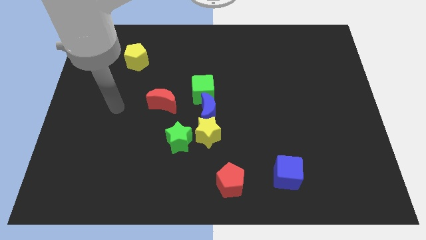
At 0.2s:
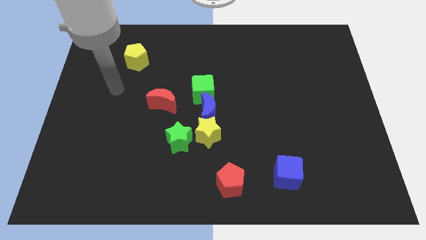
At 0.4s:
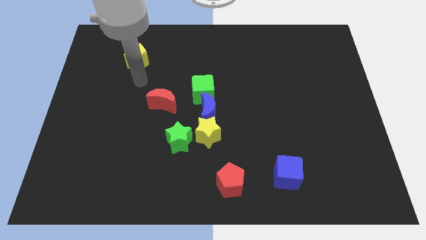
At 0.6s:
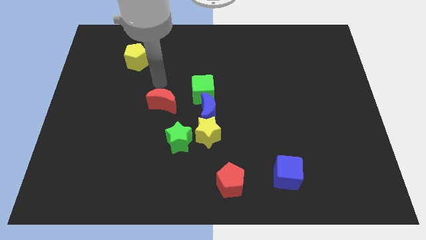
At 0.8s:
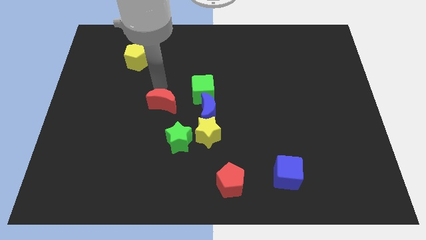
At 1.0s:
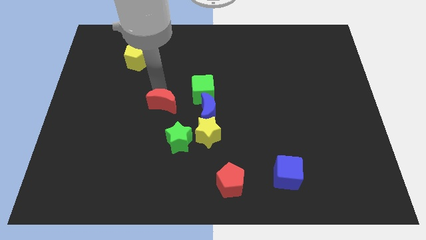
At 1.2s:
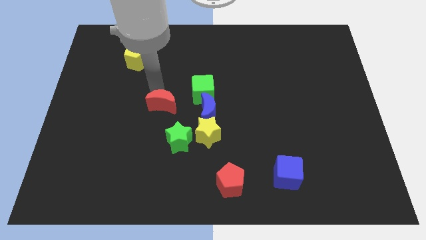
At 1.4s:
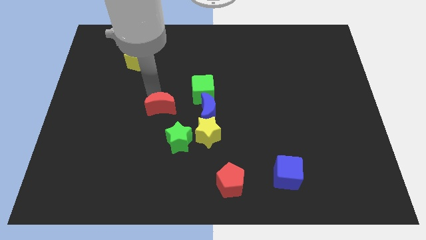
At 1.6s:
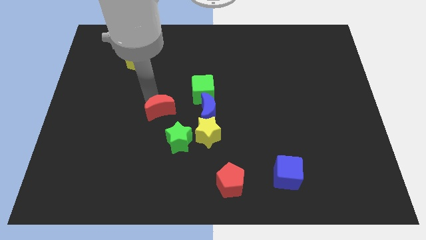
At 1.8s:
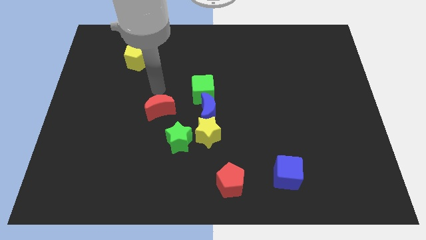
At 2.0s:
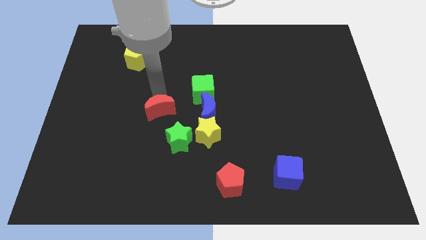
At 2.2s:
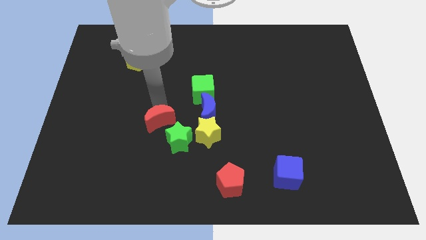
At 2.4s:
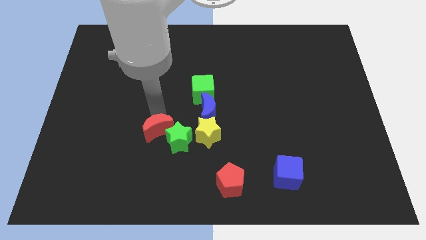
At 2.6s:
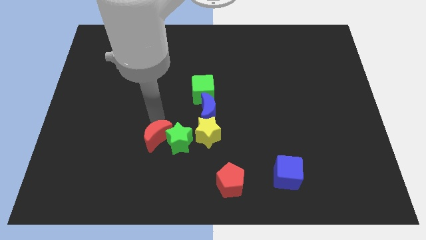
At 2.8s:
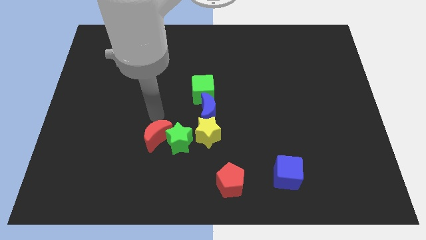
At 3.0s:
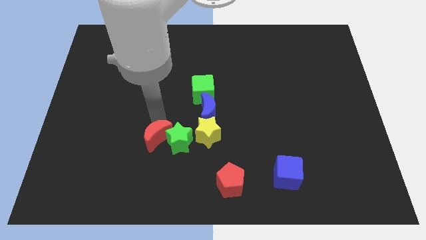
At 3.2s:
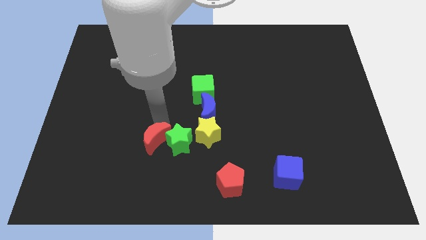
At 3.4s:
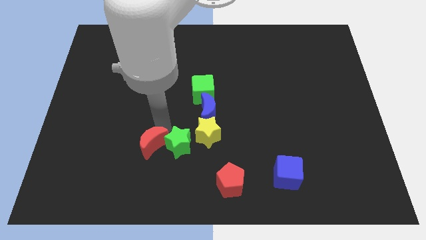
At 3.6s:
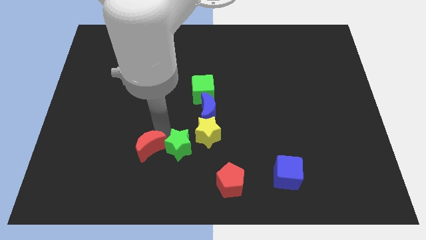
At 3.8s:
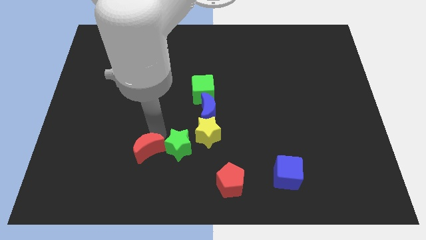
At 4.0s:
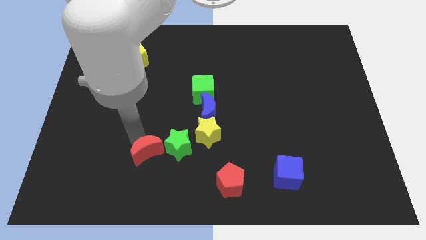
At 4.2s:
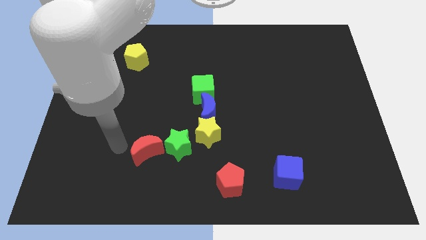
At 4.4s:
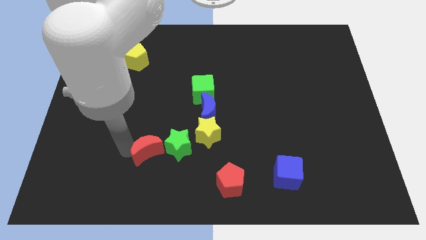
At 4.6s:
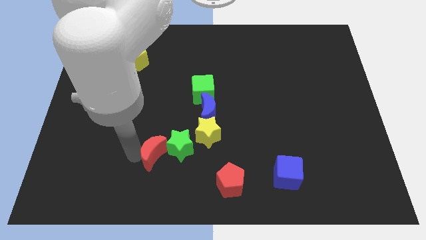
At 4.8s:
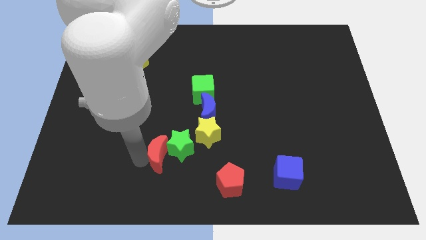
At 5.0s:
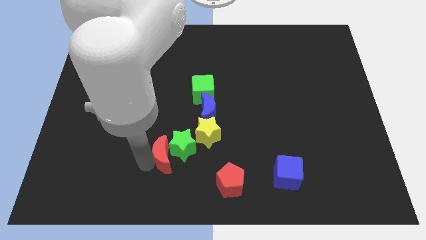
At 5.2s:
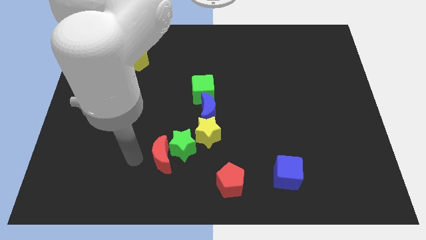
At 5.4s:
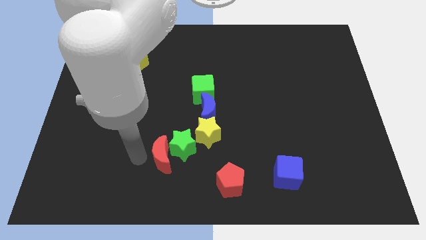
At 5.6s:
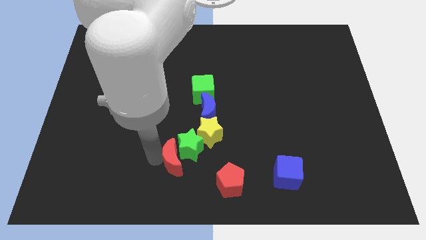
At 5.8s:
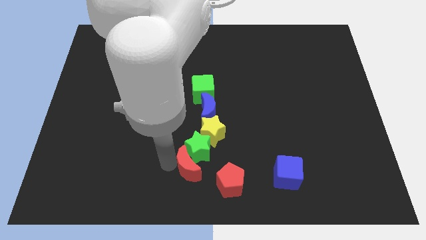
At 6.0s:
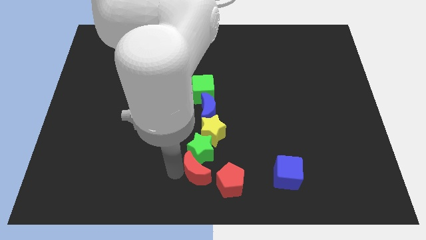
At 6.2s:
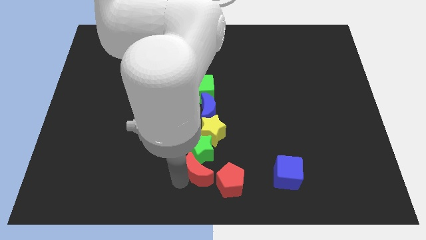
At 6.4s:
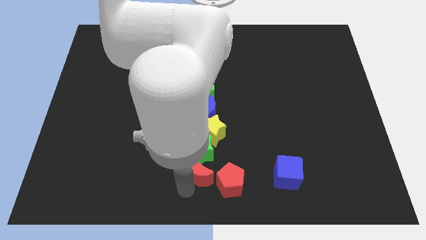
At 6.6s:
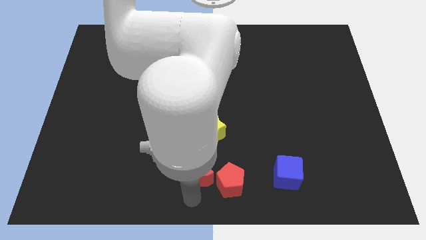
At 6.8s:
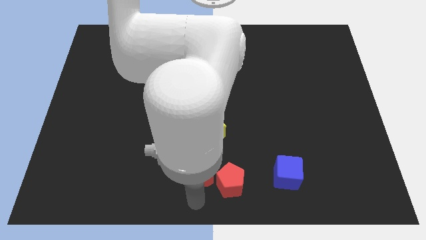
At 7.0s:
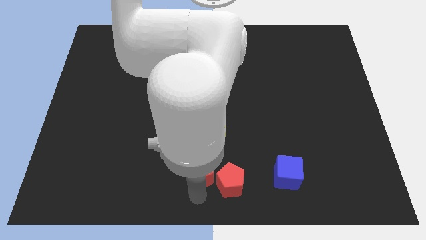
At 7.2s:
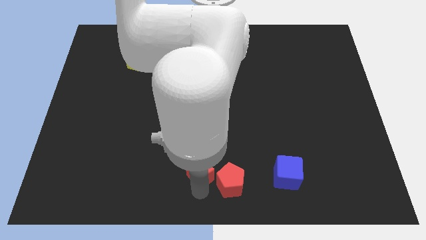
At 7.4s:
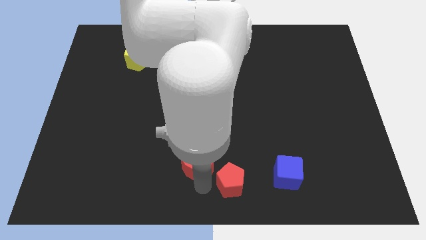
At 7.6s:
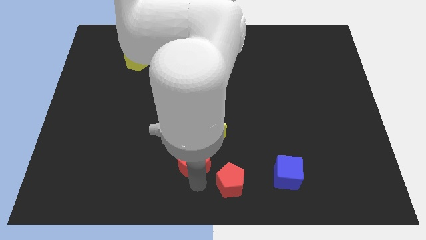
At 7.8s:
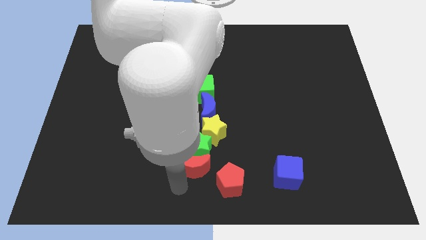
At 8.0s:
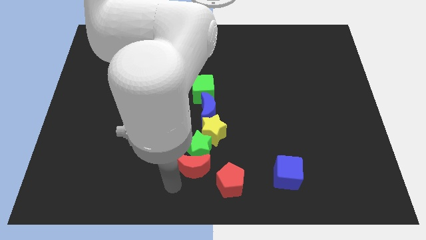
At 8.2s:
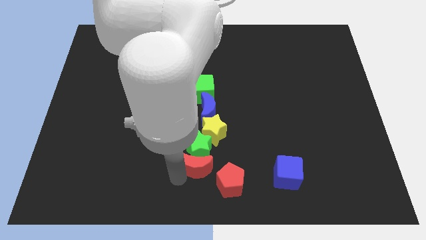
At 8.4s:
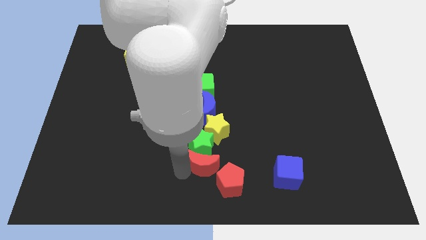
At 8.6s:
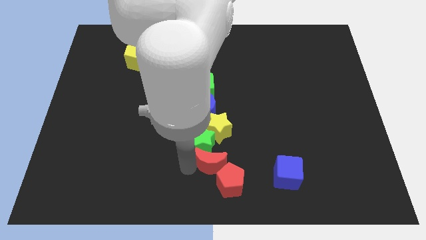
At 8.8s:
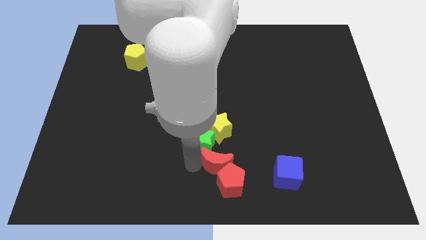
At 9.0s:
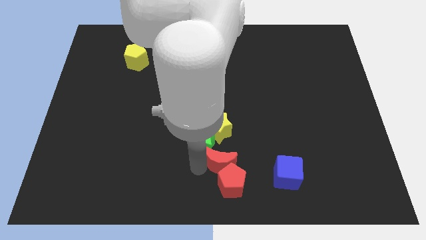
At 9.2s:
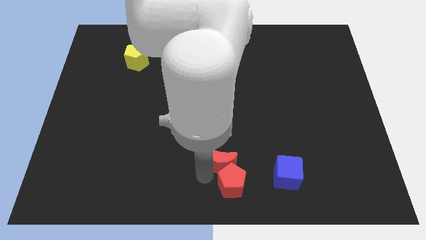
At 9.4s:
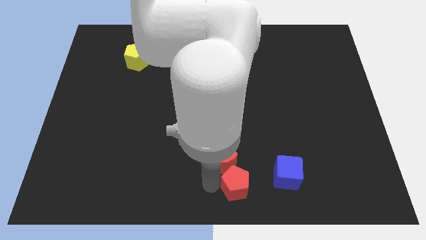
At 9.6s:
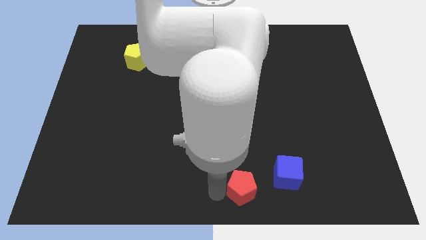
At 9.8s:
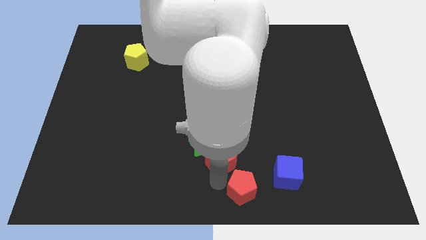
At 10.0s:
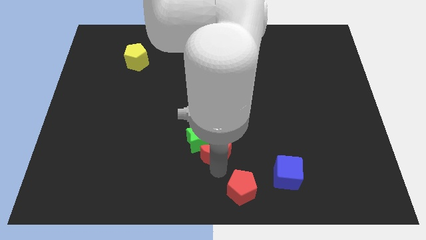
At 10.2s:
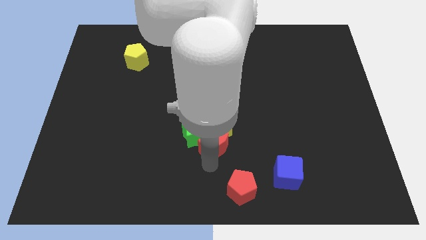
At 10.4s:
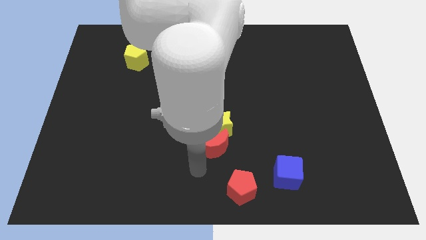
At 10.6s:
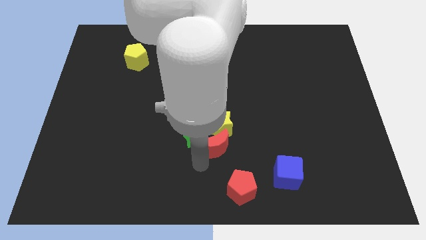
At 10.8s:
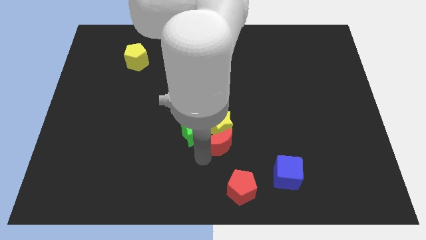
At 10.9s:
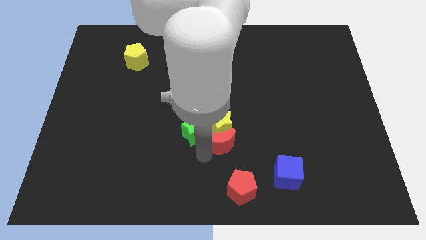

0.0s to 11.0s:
push the red moon diagonally down and to the right of the blue moon

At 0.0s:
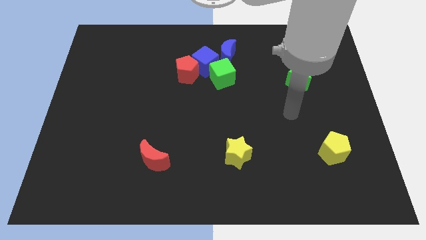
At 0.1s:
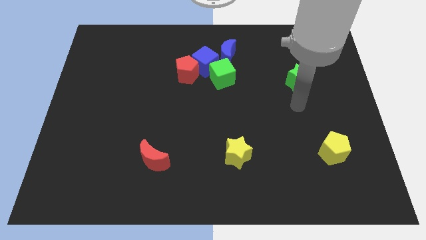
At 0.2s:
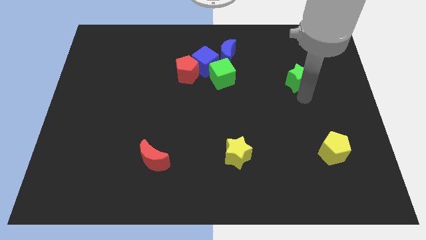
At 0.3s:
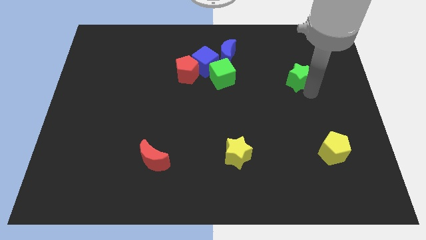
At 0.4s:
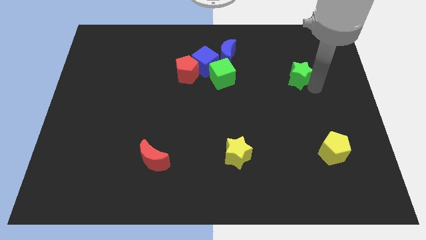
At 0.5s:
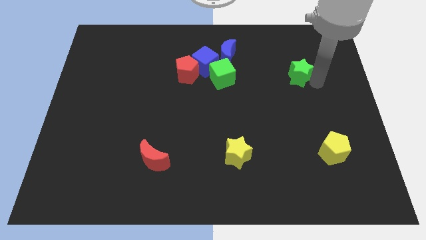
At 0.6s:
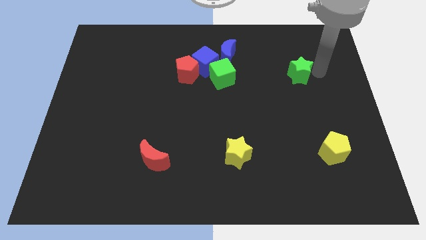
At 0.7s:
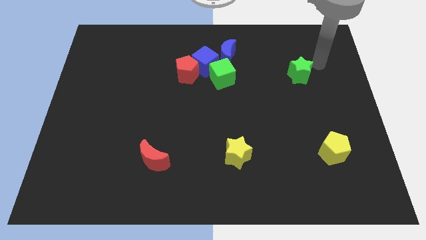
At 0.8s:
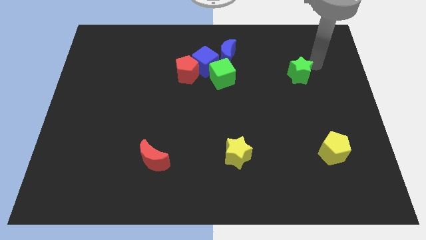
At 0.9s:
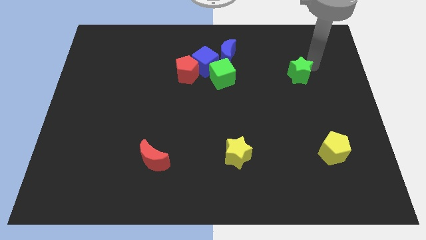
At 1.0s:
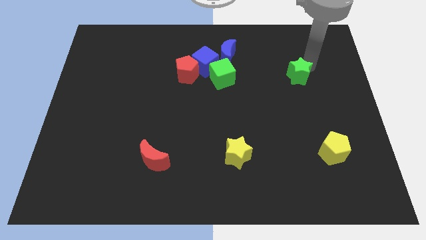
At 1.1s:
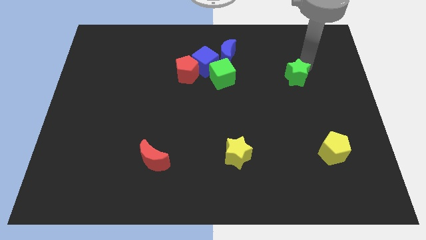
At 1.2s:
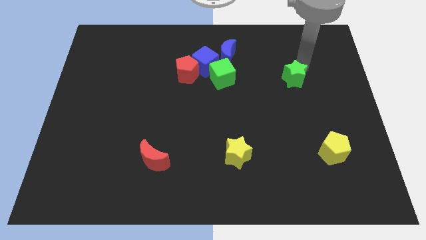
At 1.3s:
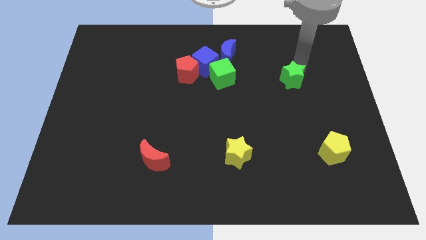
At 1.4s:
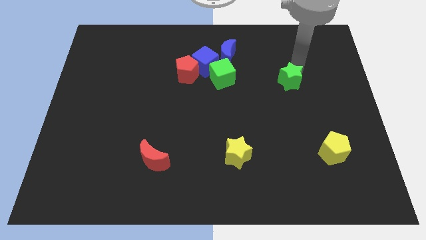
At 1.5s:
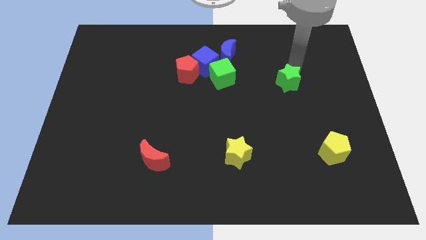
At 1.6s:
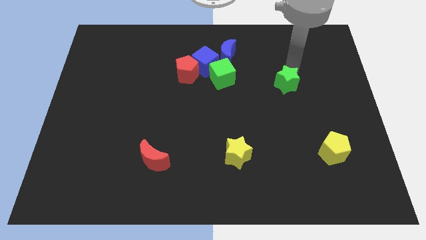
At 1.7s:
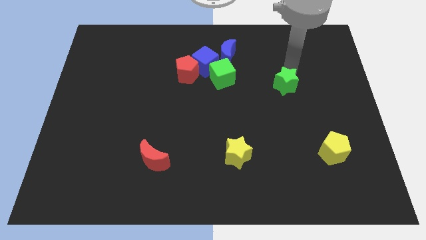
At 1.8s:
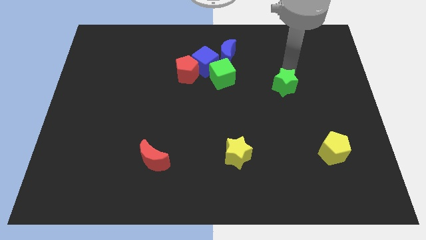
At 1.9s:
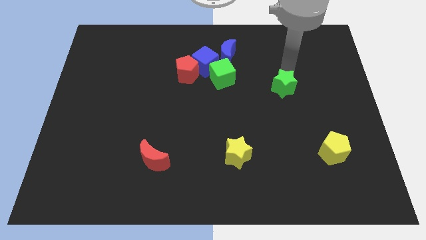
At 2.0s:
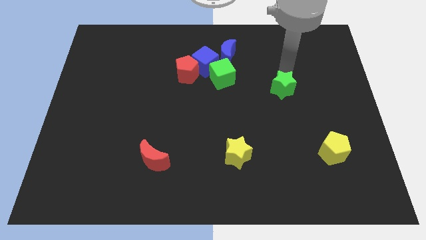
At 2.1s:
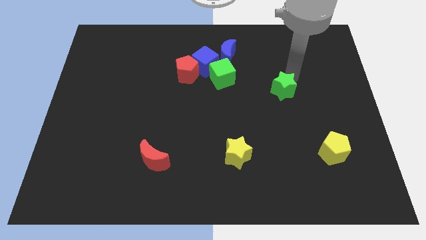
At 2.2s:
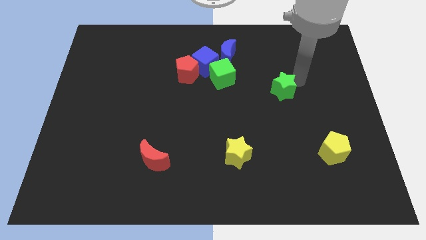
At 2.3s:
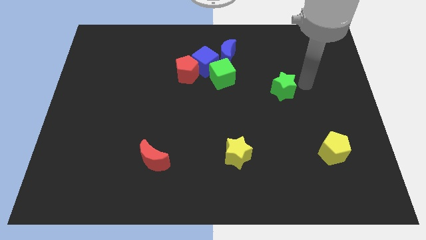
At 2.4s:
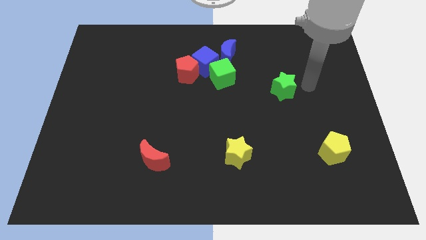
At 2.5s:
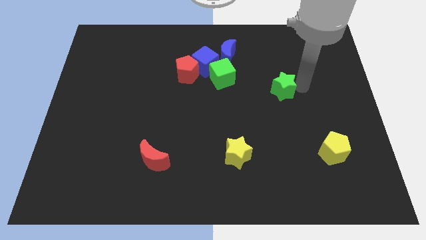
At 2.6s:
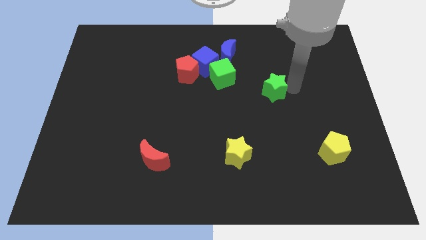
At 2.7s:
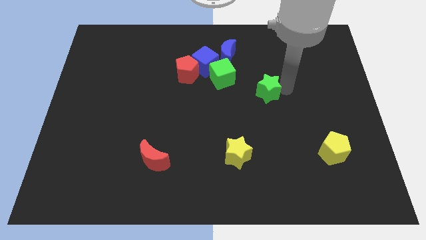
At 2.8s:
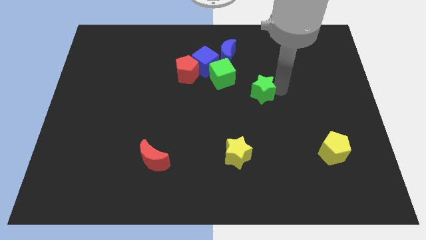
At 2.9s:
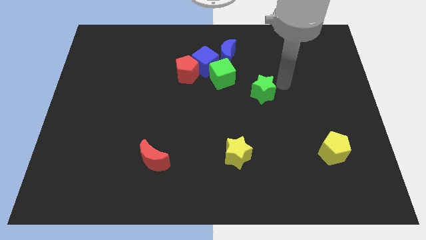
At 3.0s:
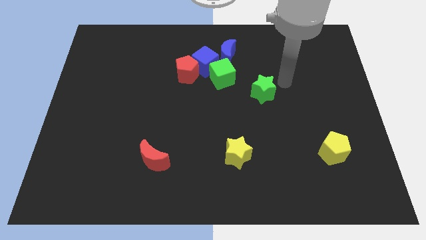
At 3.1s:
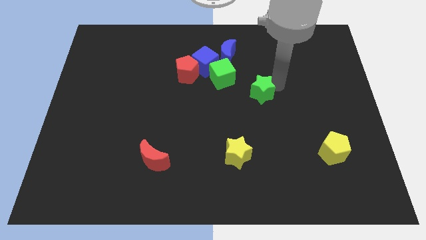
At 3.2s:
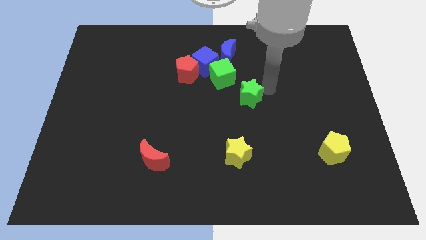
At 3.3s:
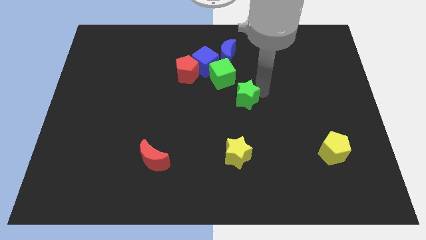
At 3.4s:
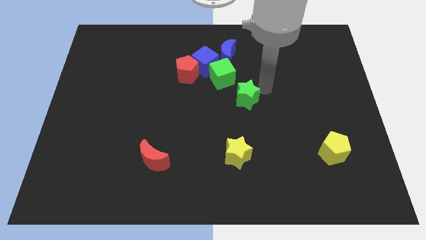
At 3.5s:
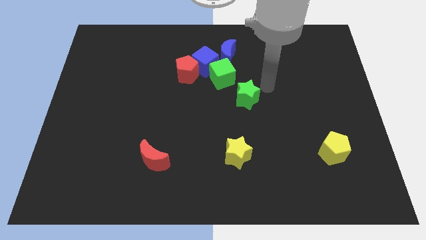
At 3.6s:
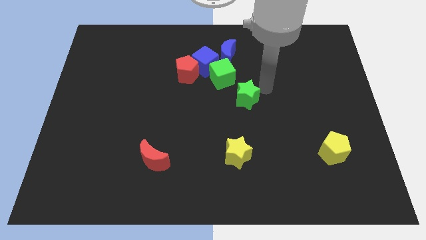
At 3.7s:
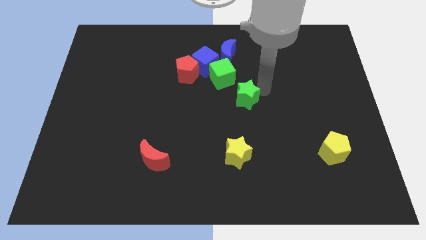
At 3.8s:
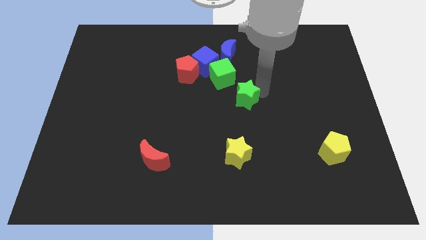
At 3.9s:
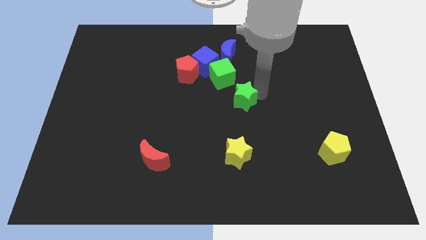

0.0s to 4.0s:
move the green star to the bottom side of the green cube
